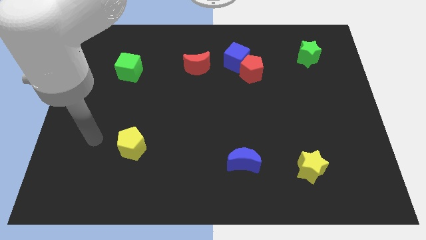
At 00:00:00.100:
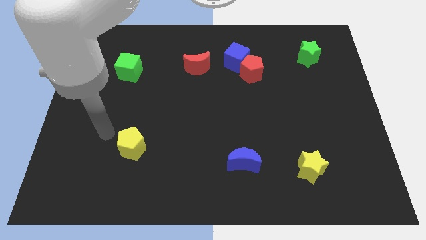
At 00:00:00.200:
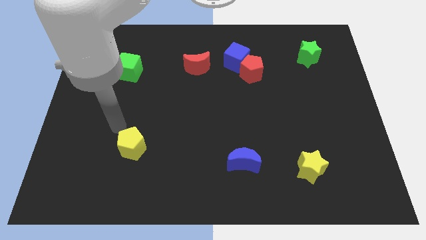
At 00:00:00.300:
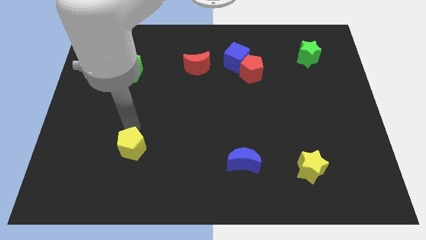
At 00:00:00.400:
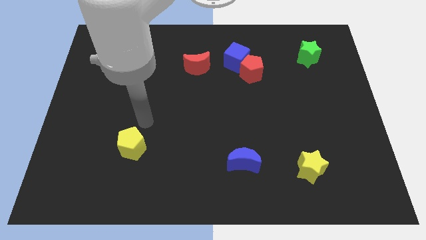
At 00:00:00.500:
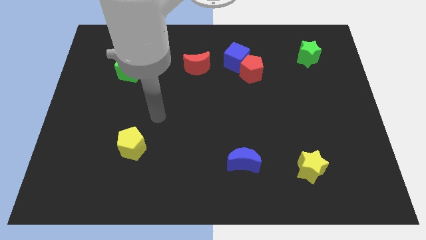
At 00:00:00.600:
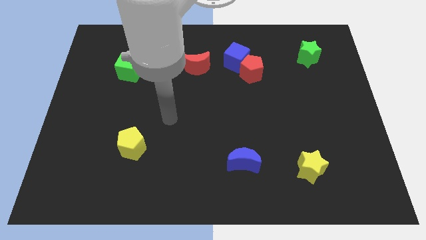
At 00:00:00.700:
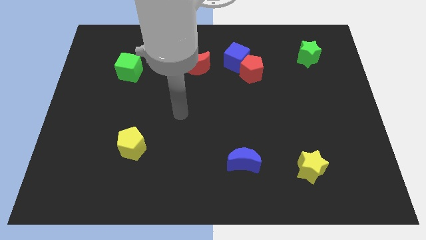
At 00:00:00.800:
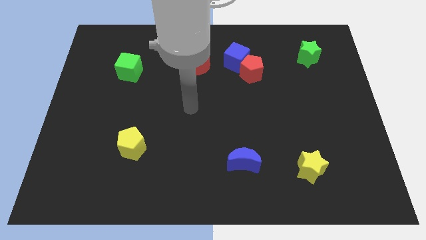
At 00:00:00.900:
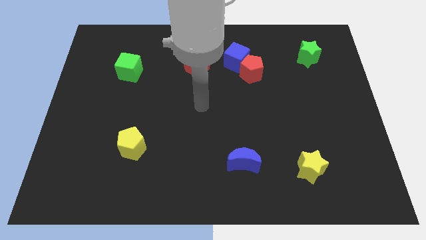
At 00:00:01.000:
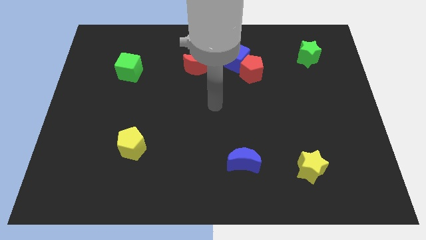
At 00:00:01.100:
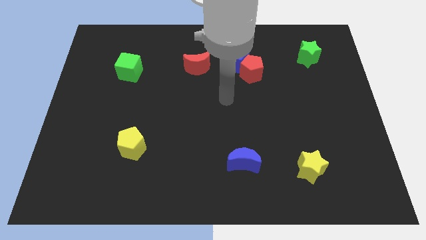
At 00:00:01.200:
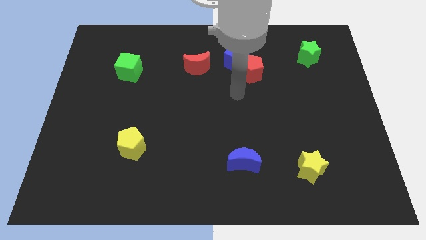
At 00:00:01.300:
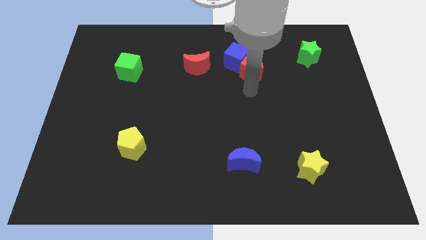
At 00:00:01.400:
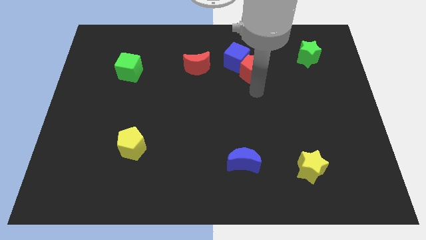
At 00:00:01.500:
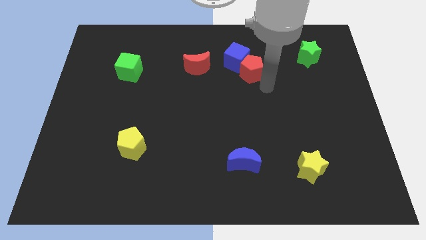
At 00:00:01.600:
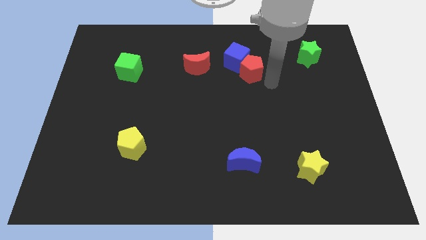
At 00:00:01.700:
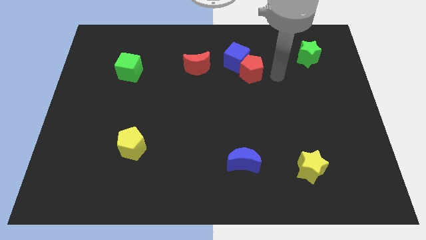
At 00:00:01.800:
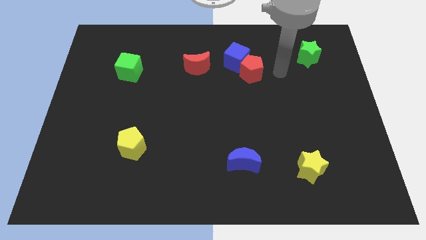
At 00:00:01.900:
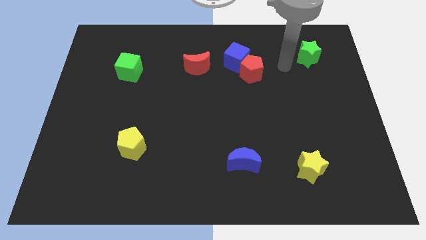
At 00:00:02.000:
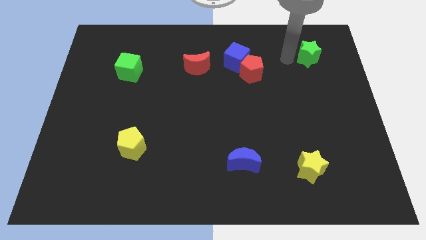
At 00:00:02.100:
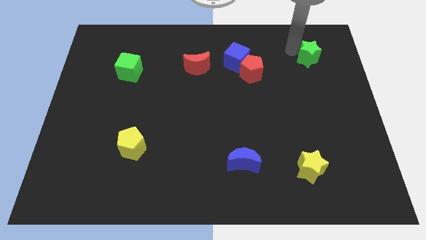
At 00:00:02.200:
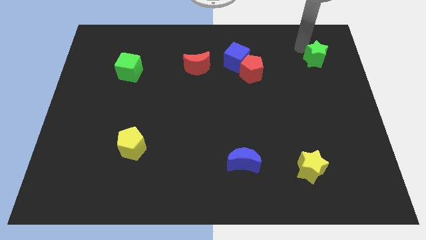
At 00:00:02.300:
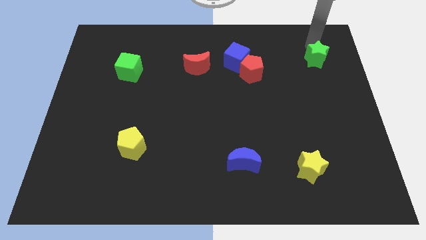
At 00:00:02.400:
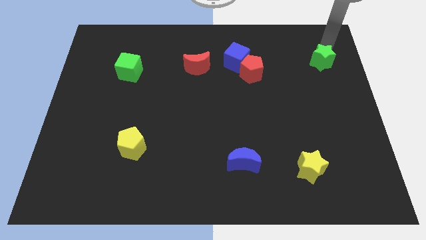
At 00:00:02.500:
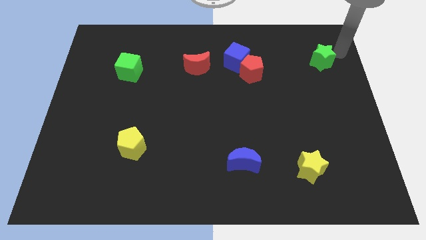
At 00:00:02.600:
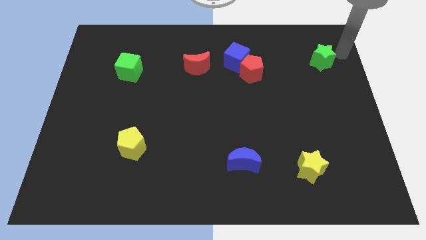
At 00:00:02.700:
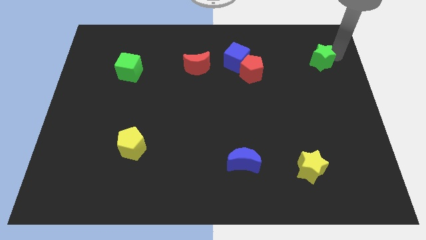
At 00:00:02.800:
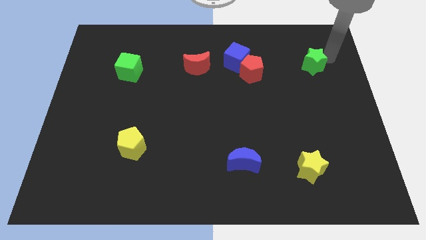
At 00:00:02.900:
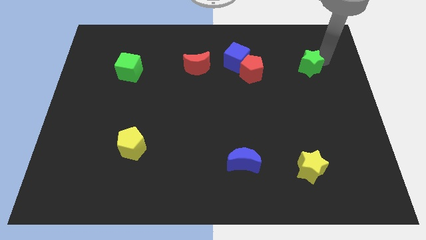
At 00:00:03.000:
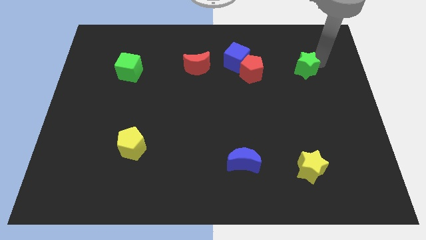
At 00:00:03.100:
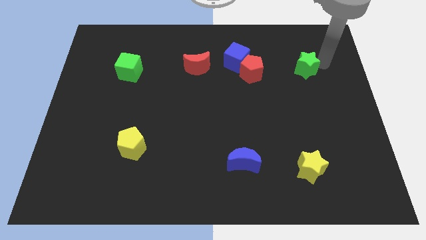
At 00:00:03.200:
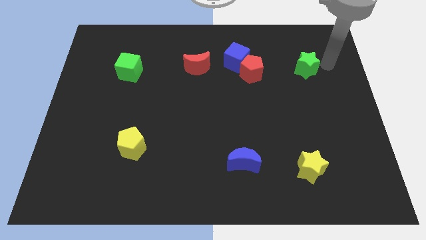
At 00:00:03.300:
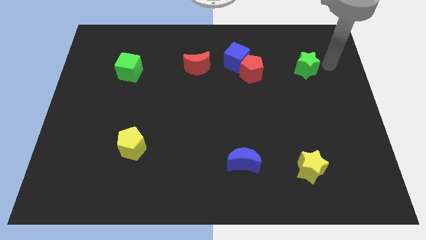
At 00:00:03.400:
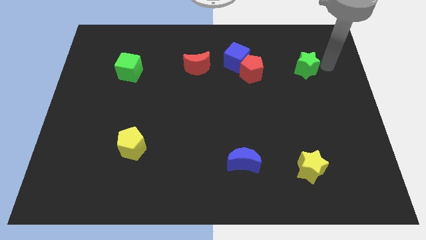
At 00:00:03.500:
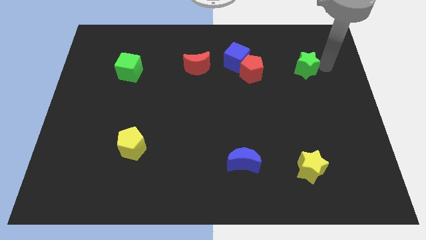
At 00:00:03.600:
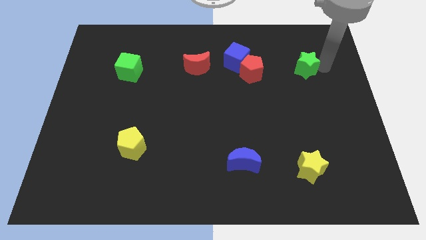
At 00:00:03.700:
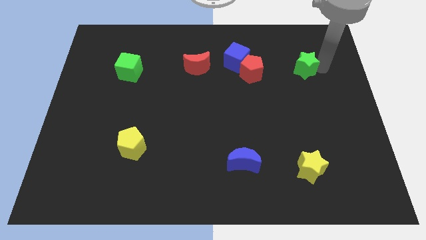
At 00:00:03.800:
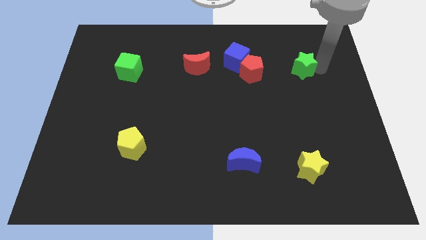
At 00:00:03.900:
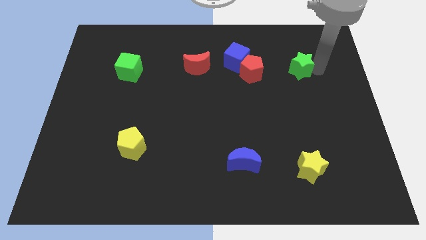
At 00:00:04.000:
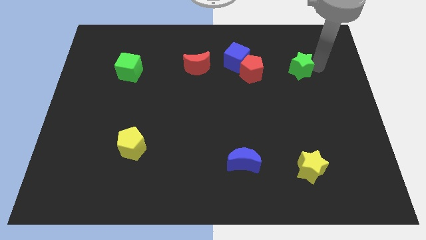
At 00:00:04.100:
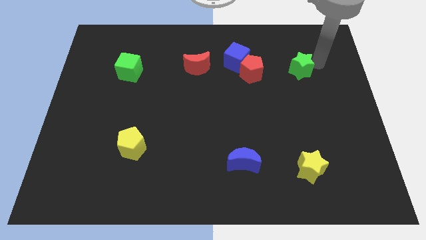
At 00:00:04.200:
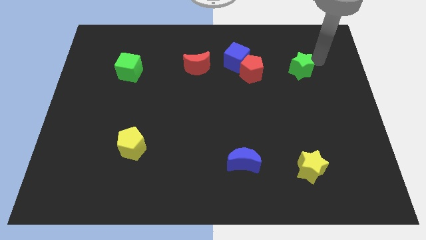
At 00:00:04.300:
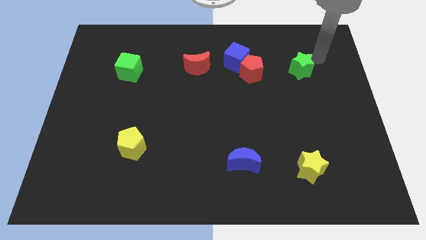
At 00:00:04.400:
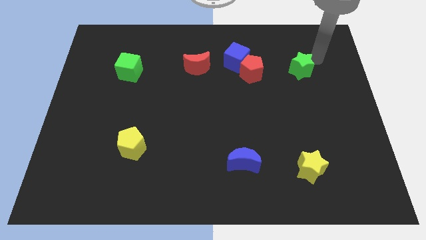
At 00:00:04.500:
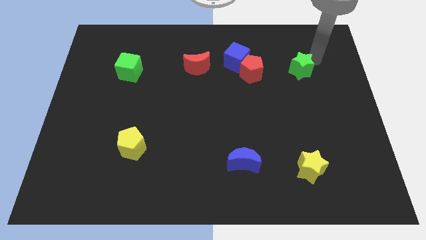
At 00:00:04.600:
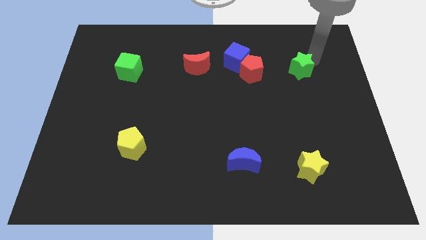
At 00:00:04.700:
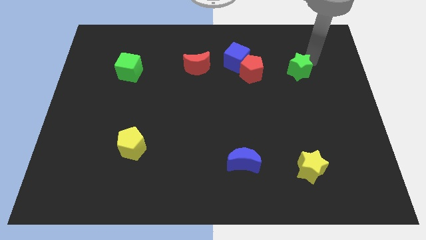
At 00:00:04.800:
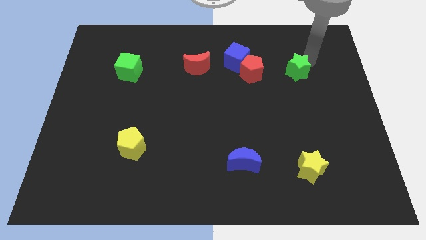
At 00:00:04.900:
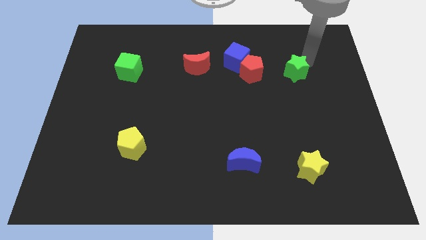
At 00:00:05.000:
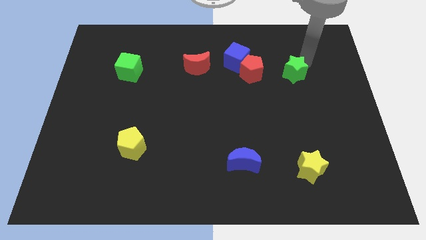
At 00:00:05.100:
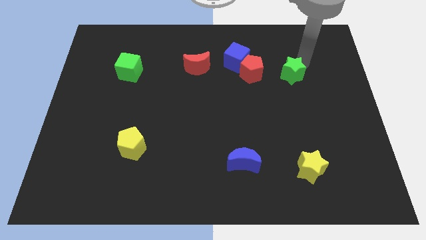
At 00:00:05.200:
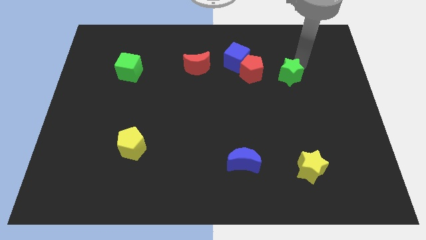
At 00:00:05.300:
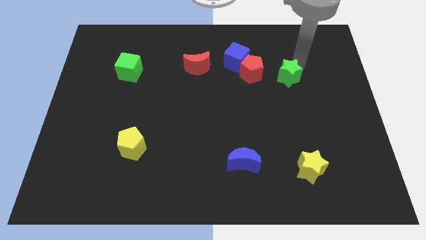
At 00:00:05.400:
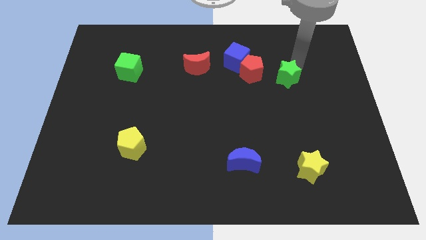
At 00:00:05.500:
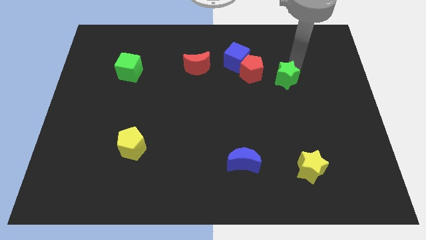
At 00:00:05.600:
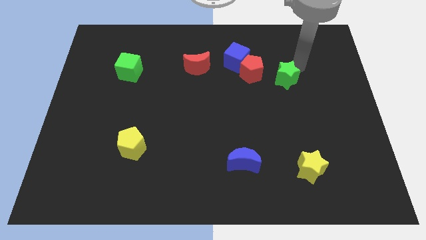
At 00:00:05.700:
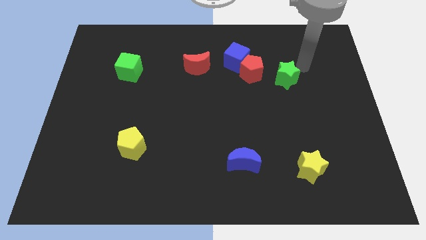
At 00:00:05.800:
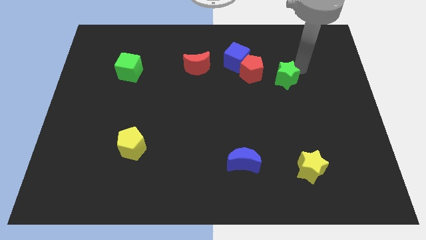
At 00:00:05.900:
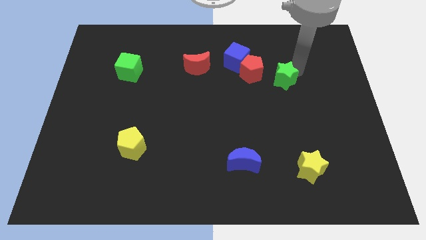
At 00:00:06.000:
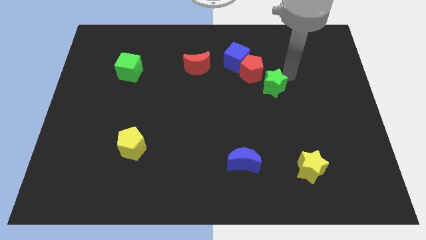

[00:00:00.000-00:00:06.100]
move the green star to the bottom side of the red pentagon

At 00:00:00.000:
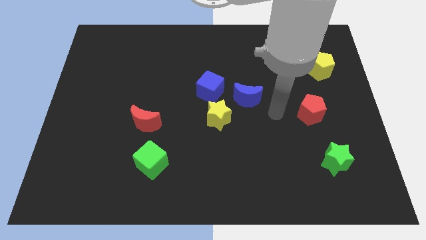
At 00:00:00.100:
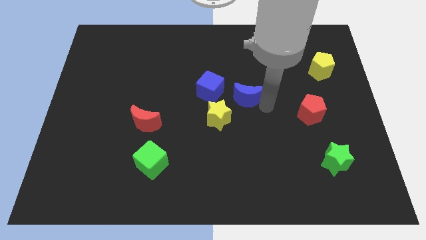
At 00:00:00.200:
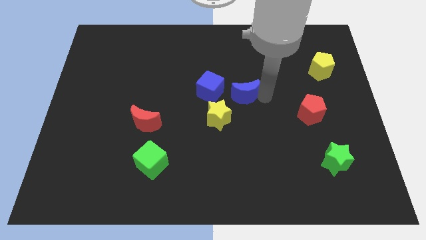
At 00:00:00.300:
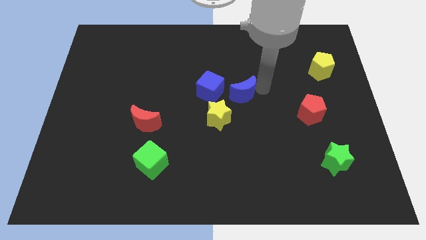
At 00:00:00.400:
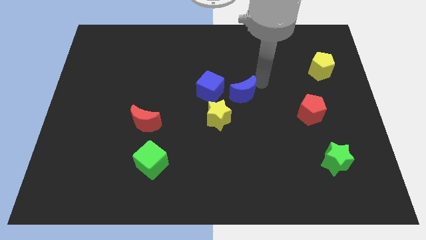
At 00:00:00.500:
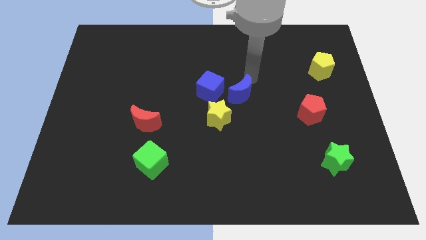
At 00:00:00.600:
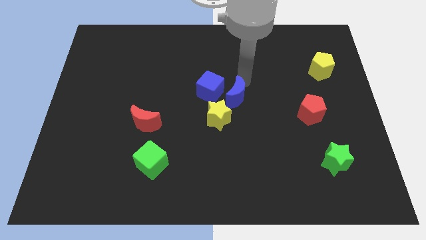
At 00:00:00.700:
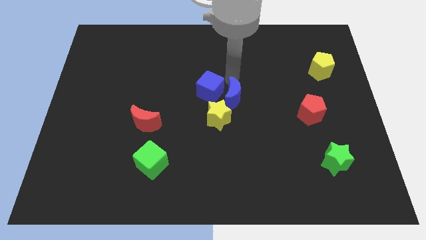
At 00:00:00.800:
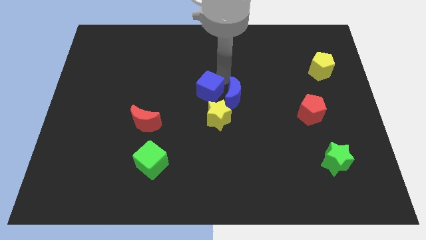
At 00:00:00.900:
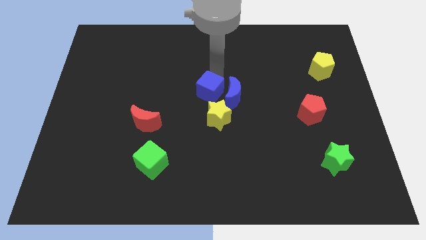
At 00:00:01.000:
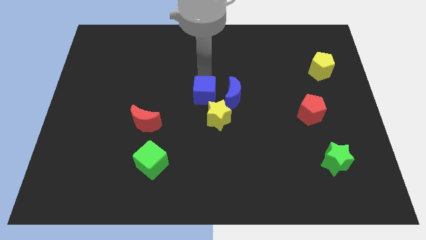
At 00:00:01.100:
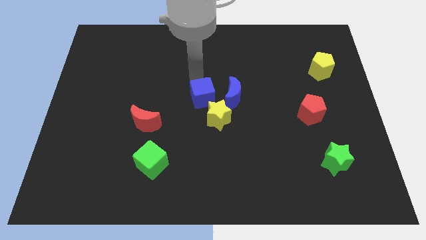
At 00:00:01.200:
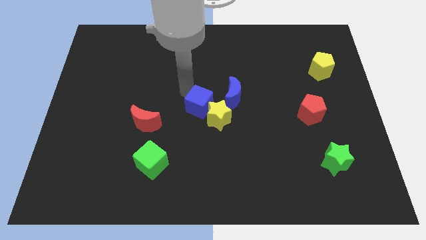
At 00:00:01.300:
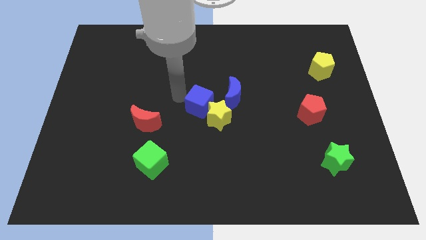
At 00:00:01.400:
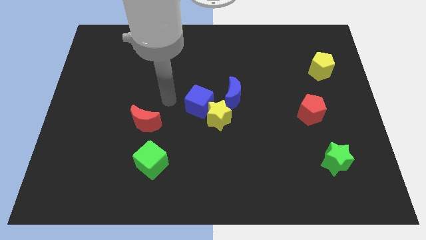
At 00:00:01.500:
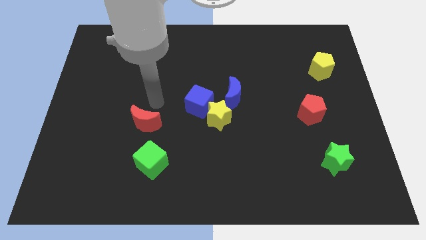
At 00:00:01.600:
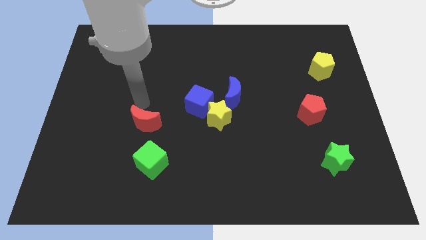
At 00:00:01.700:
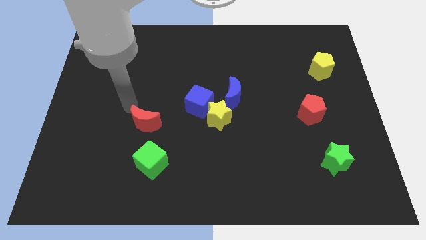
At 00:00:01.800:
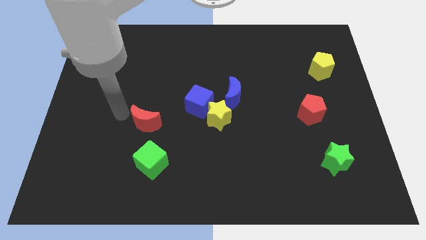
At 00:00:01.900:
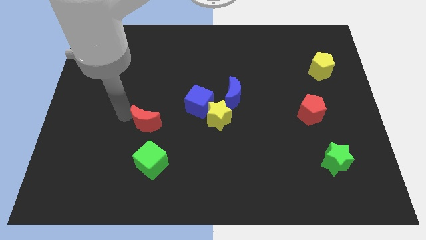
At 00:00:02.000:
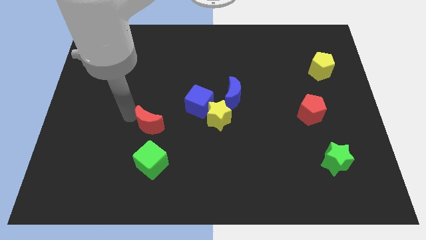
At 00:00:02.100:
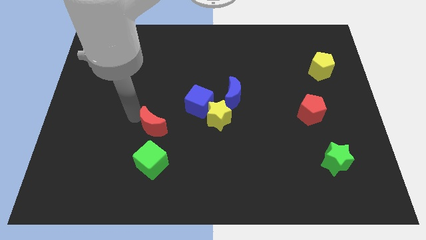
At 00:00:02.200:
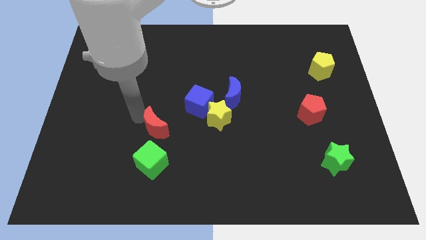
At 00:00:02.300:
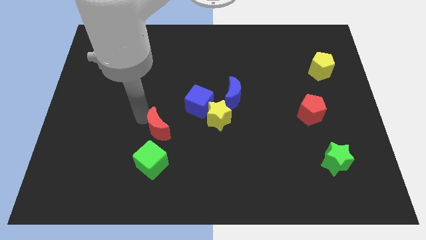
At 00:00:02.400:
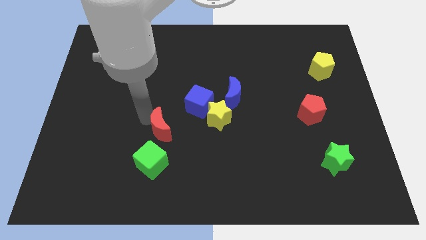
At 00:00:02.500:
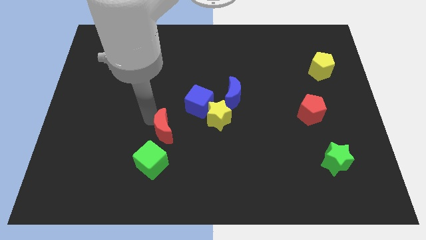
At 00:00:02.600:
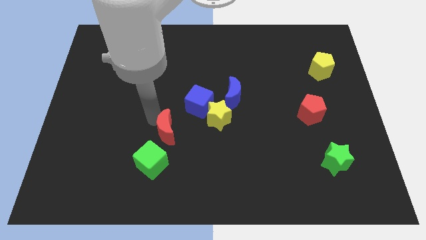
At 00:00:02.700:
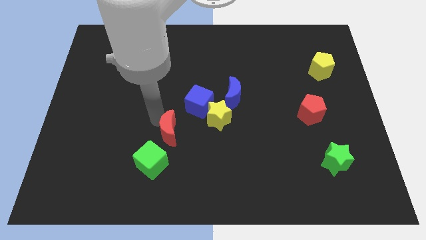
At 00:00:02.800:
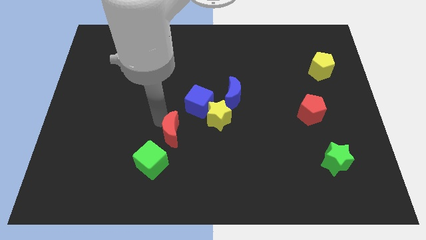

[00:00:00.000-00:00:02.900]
push the red moon to the bottom left side of the yellow star
